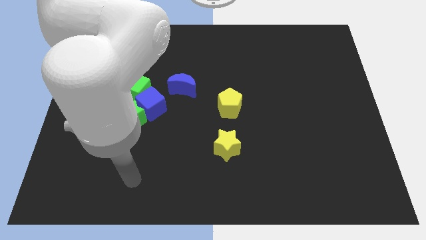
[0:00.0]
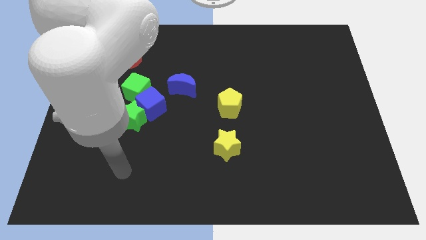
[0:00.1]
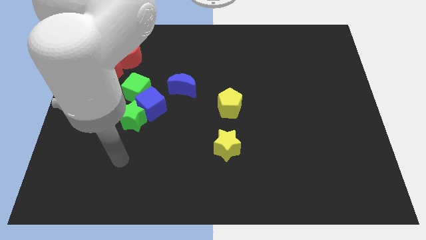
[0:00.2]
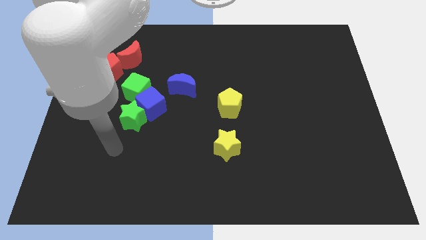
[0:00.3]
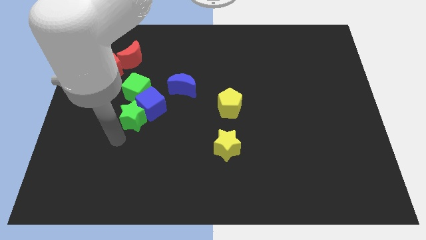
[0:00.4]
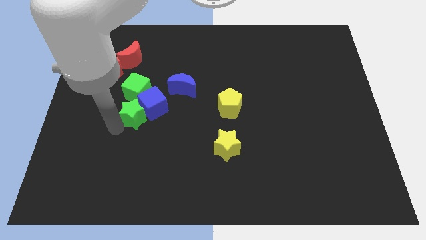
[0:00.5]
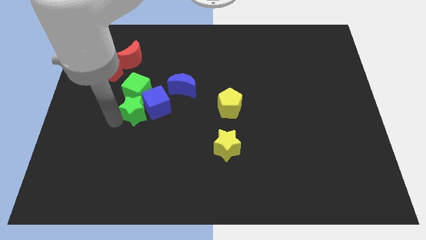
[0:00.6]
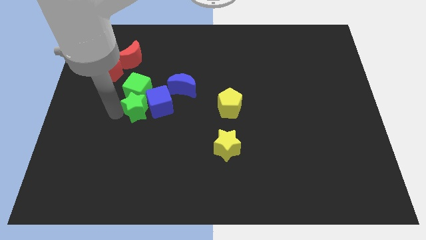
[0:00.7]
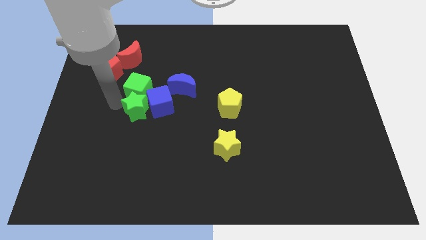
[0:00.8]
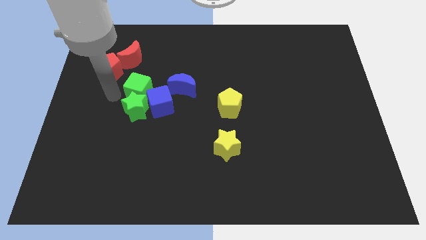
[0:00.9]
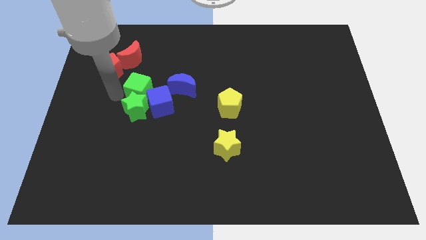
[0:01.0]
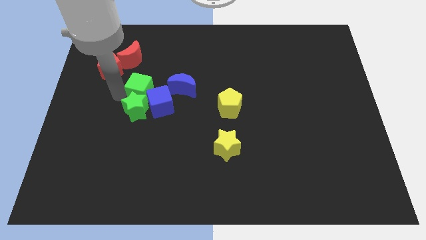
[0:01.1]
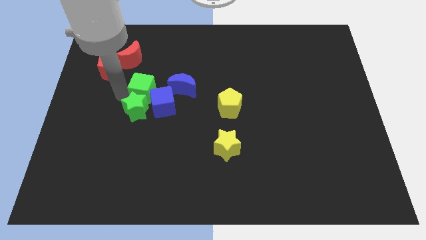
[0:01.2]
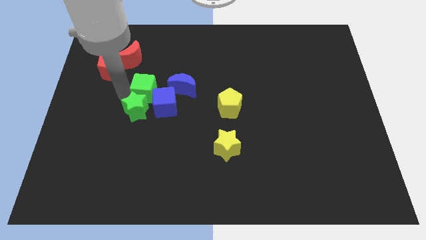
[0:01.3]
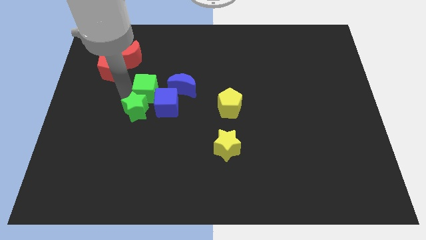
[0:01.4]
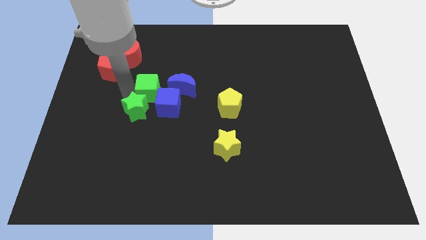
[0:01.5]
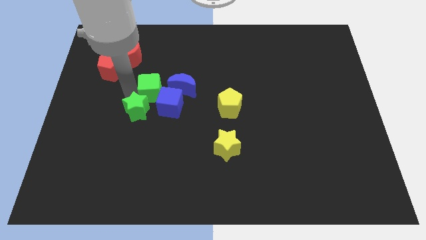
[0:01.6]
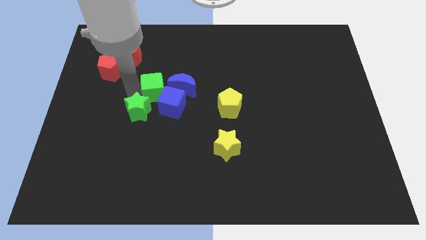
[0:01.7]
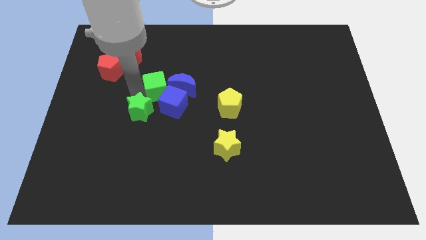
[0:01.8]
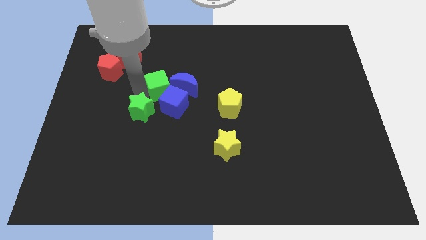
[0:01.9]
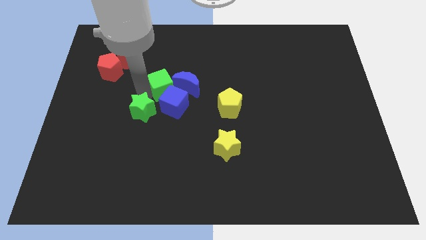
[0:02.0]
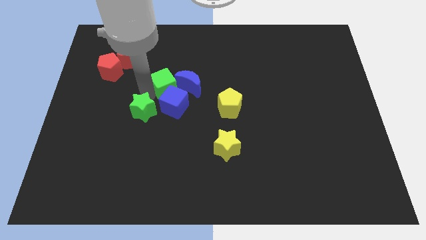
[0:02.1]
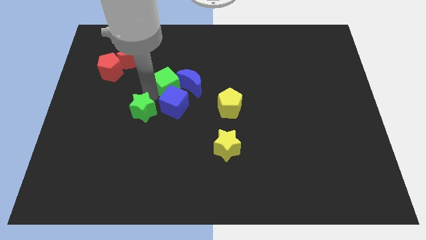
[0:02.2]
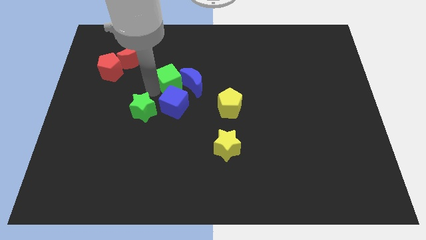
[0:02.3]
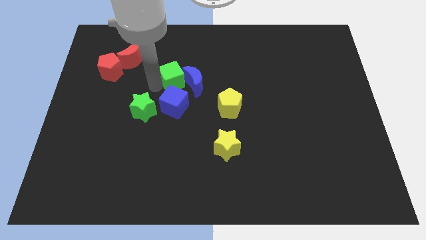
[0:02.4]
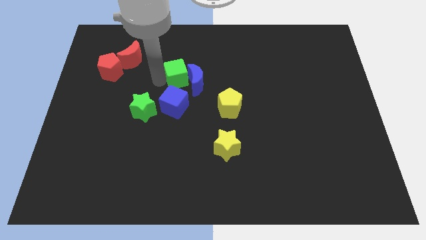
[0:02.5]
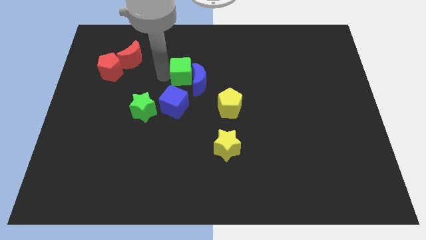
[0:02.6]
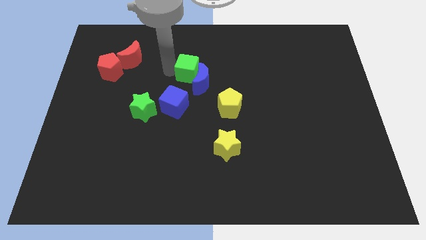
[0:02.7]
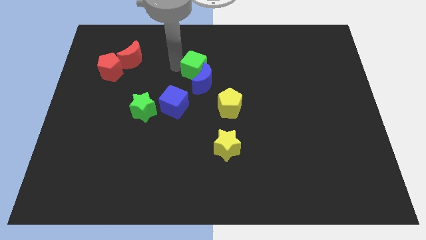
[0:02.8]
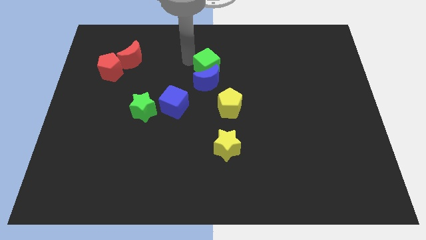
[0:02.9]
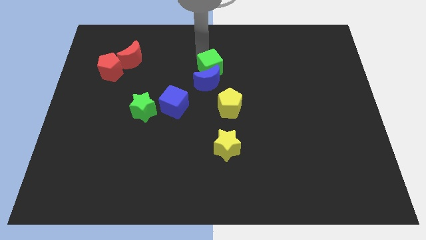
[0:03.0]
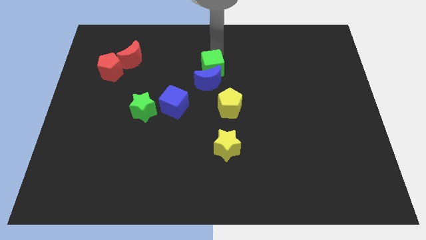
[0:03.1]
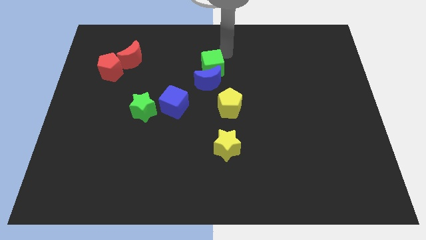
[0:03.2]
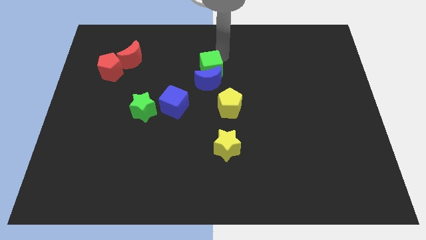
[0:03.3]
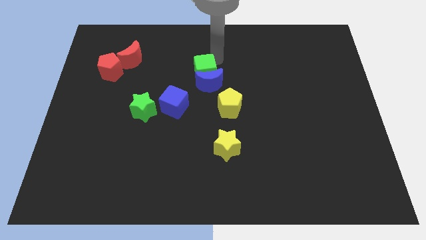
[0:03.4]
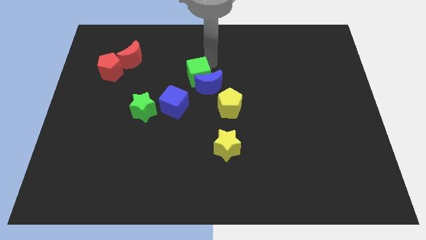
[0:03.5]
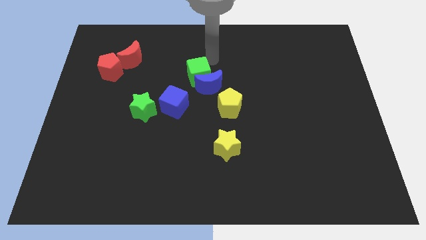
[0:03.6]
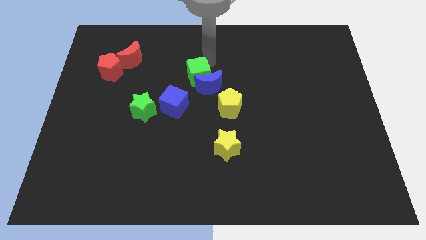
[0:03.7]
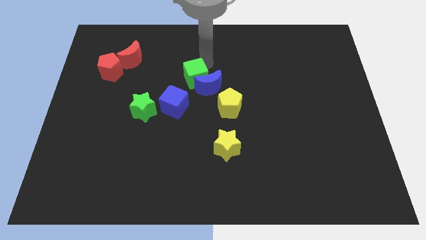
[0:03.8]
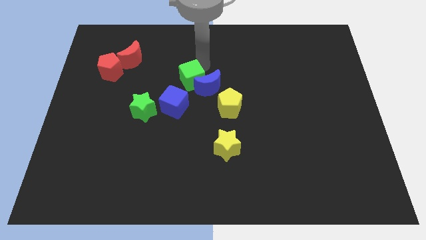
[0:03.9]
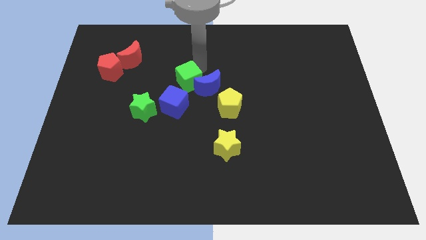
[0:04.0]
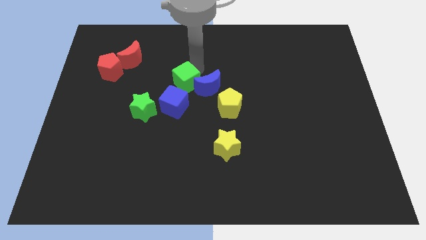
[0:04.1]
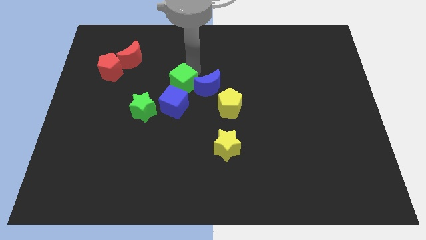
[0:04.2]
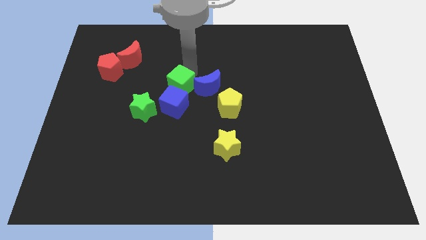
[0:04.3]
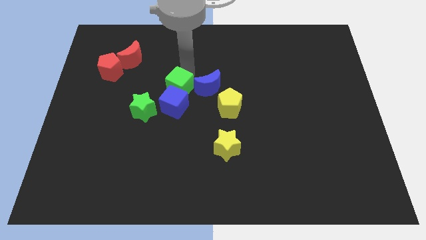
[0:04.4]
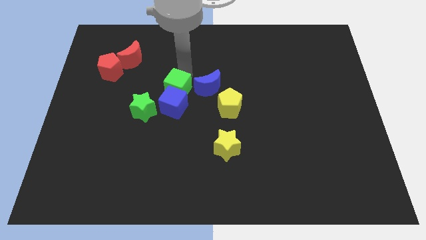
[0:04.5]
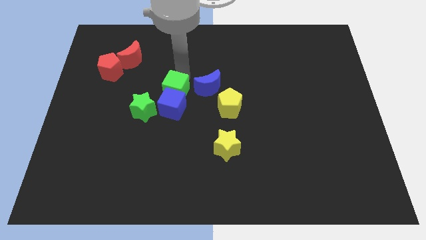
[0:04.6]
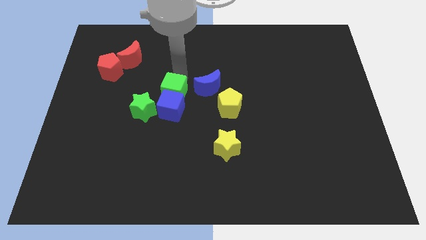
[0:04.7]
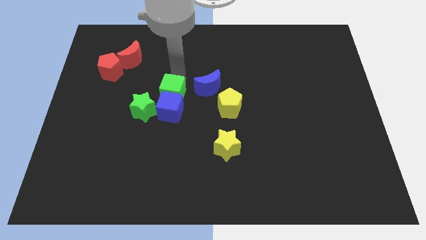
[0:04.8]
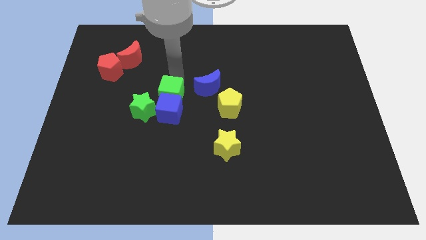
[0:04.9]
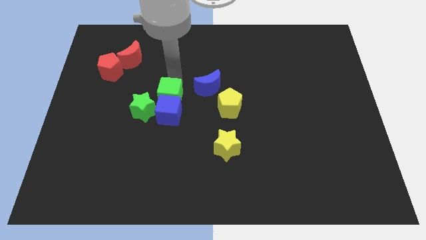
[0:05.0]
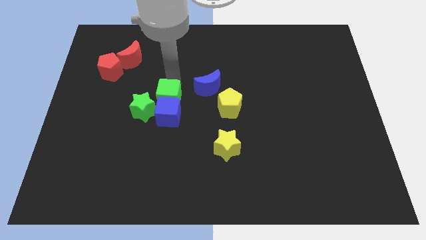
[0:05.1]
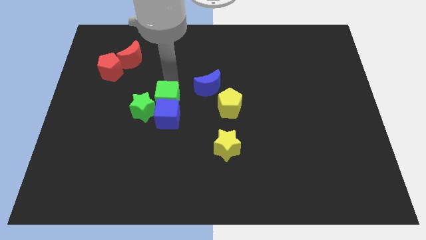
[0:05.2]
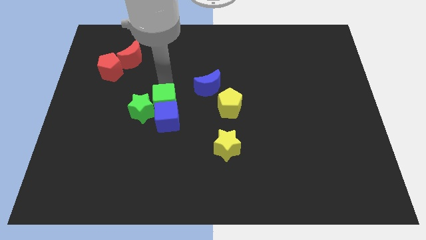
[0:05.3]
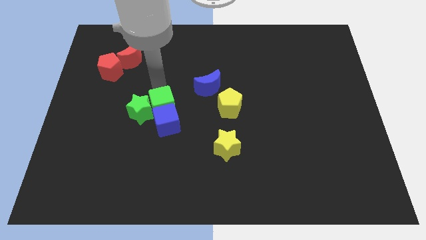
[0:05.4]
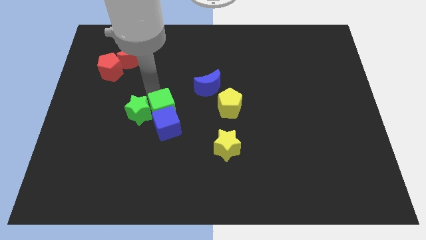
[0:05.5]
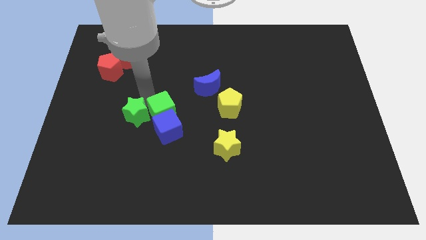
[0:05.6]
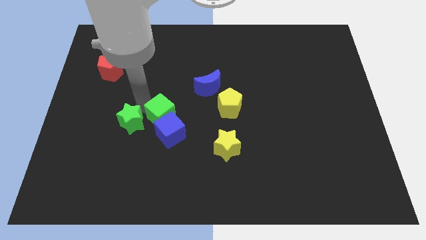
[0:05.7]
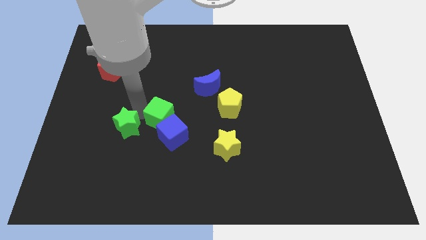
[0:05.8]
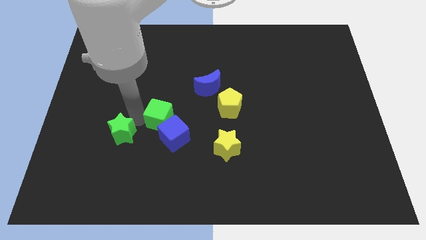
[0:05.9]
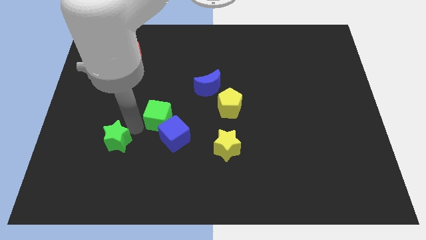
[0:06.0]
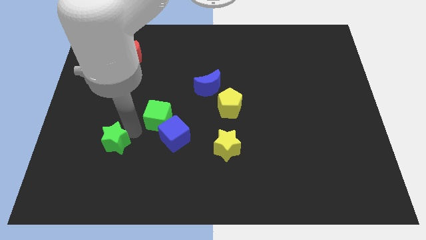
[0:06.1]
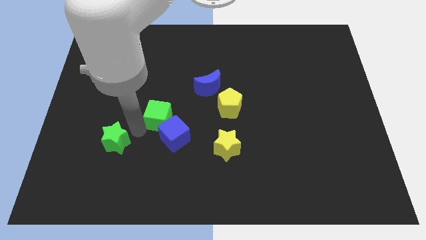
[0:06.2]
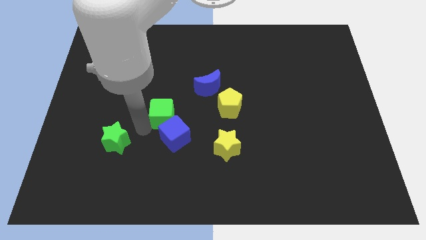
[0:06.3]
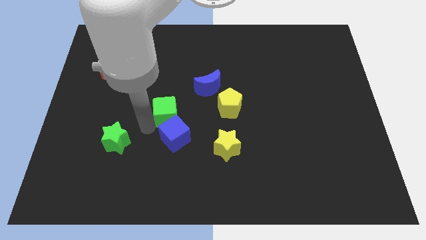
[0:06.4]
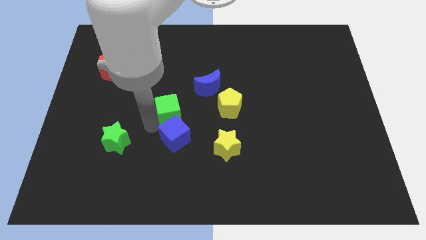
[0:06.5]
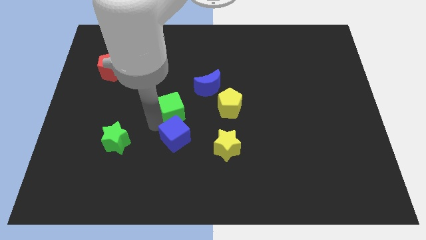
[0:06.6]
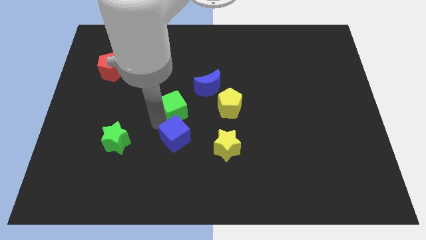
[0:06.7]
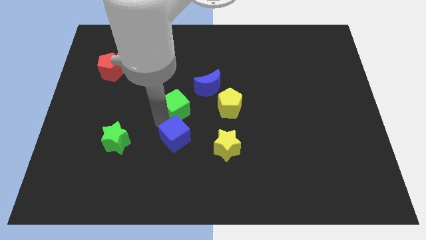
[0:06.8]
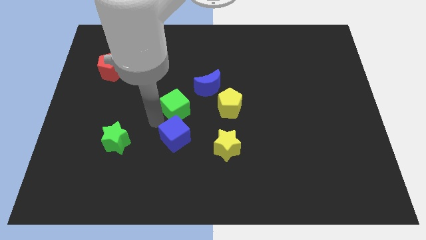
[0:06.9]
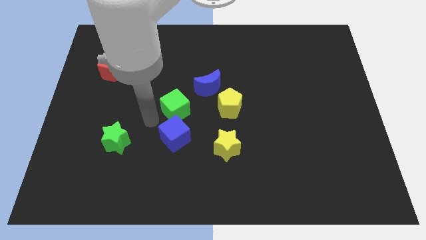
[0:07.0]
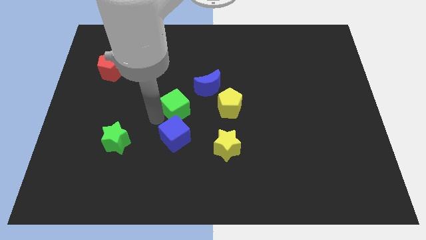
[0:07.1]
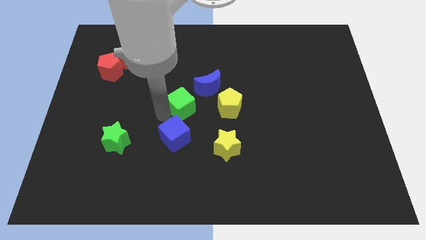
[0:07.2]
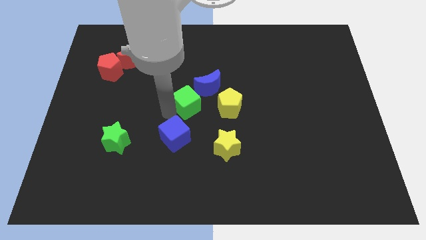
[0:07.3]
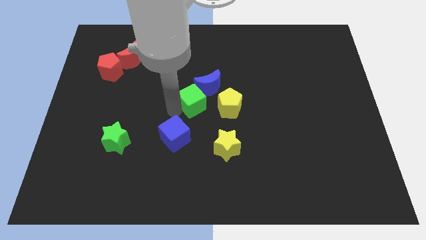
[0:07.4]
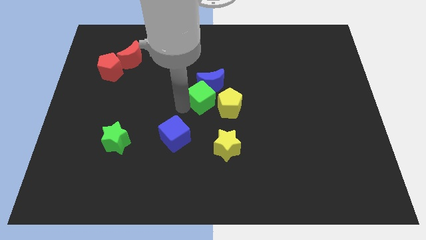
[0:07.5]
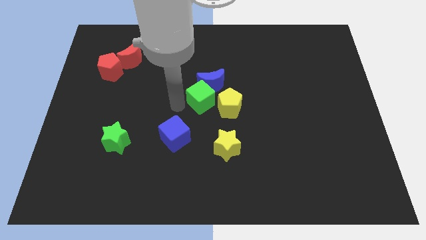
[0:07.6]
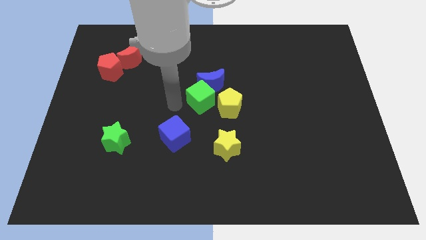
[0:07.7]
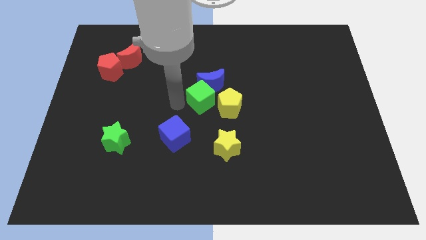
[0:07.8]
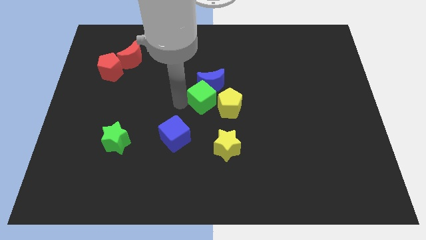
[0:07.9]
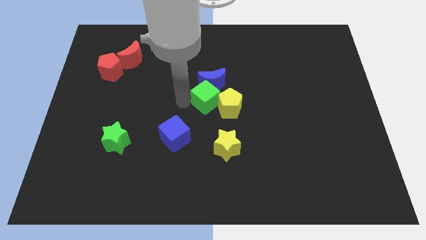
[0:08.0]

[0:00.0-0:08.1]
slide the green cube close to the yellow pentagon
